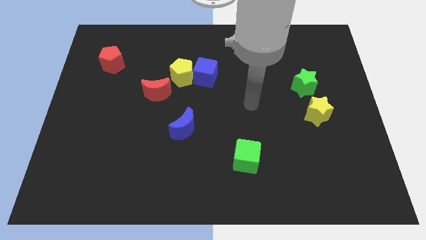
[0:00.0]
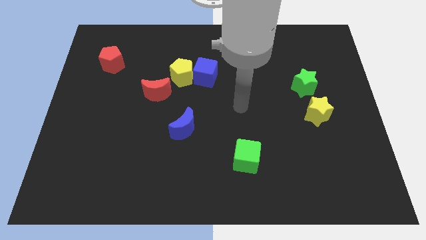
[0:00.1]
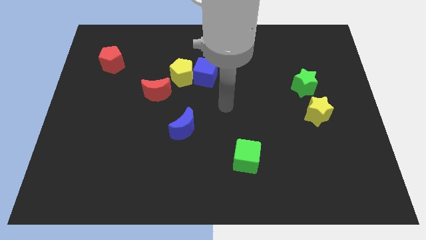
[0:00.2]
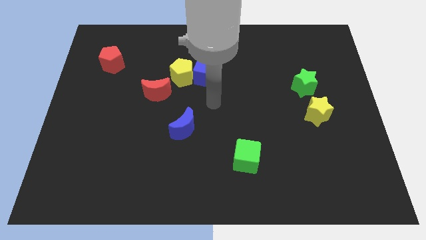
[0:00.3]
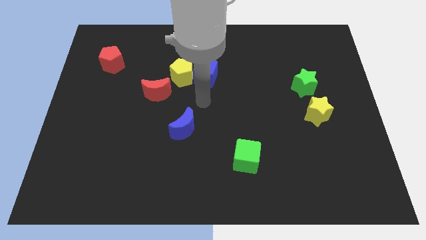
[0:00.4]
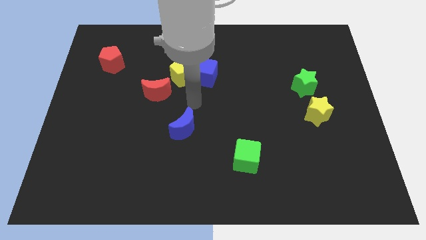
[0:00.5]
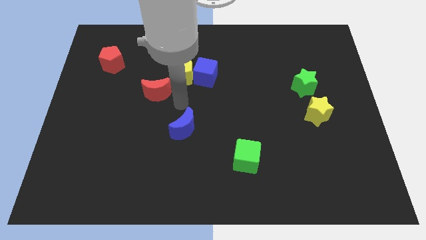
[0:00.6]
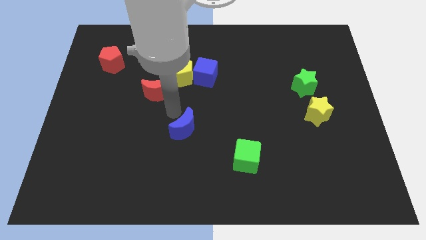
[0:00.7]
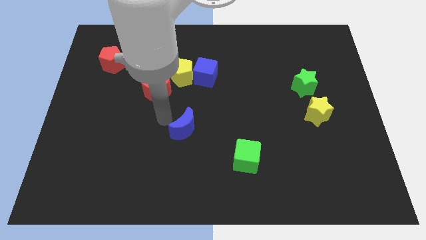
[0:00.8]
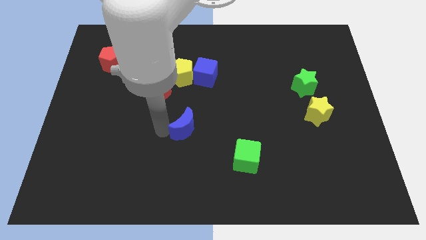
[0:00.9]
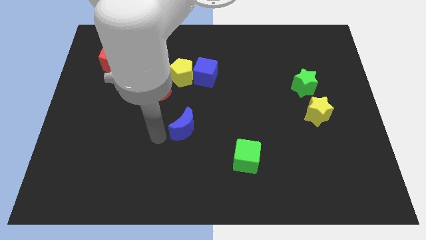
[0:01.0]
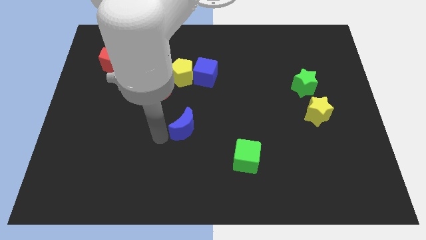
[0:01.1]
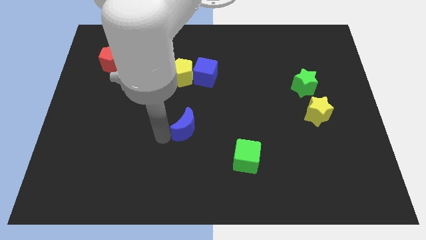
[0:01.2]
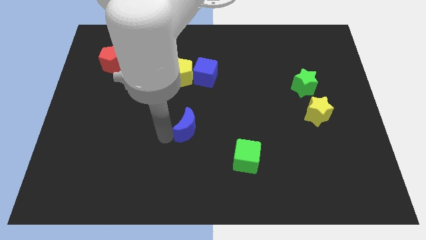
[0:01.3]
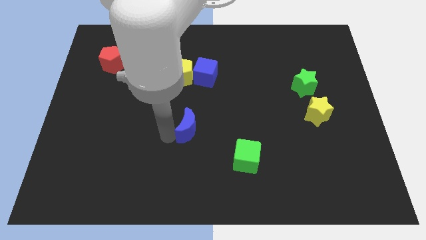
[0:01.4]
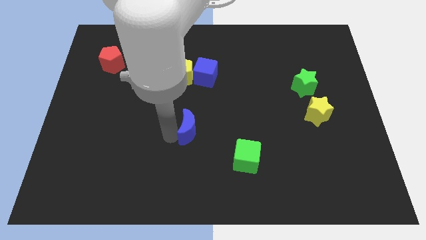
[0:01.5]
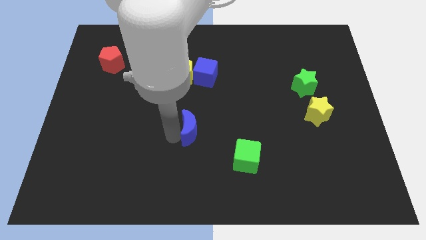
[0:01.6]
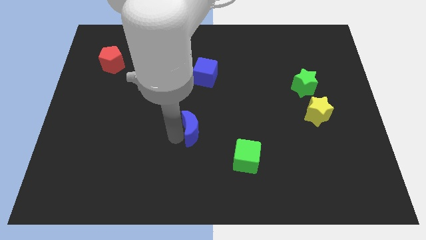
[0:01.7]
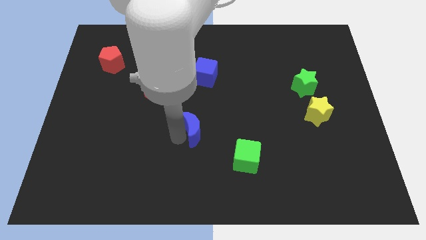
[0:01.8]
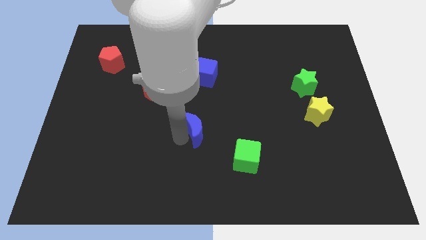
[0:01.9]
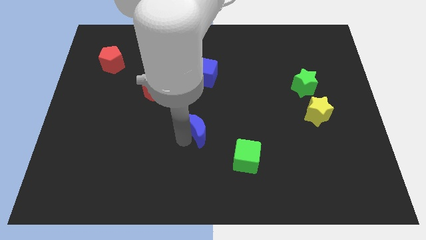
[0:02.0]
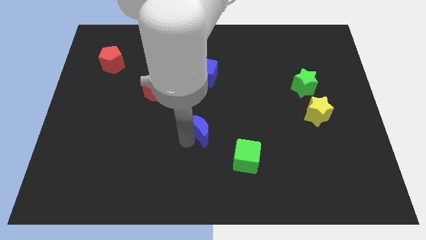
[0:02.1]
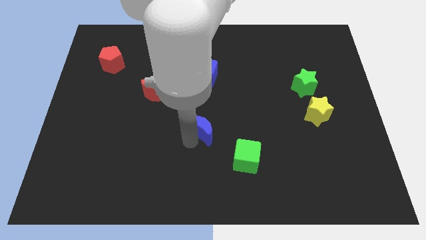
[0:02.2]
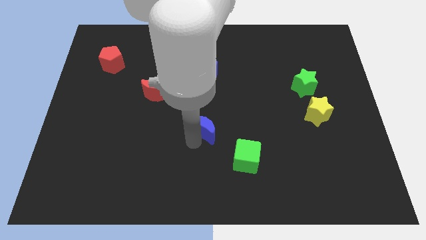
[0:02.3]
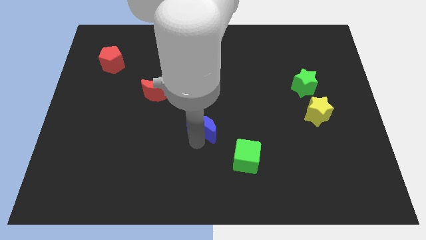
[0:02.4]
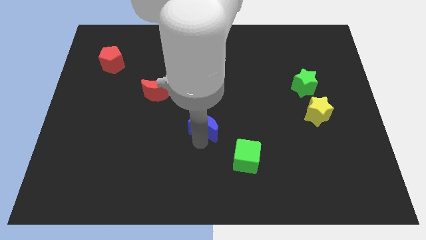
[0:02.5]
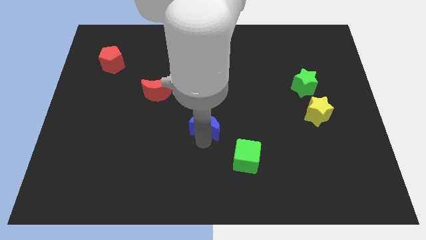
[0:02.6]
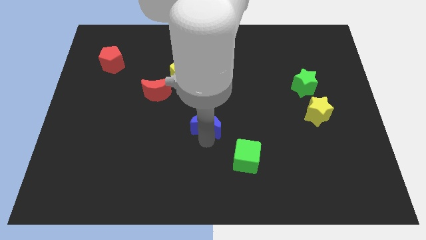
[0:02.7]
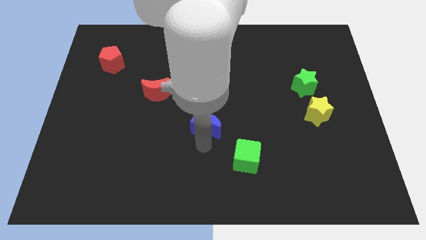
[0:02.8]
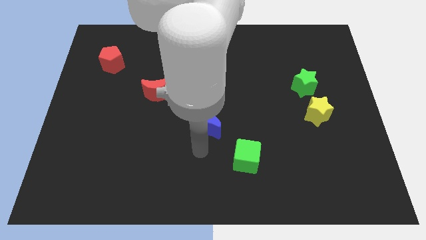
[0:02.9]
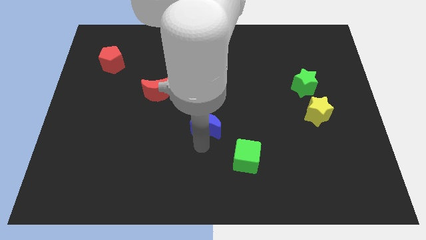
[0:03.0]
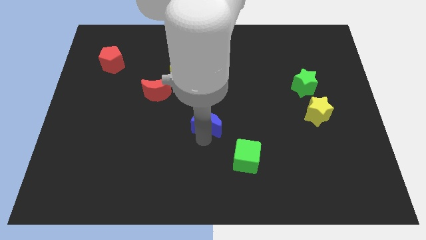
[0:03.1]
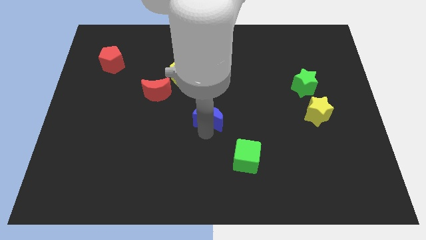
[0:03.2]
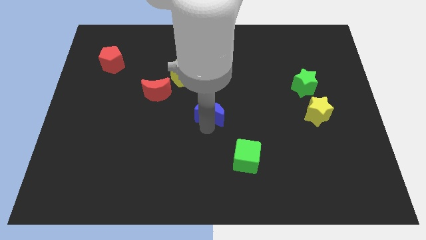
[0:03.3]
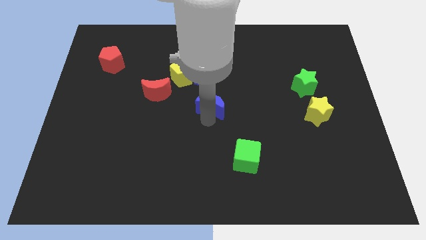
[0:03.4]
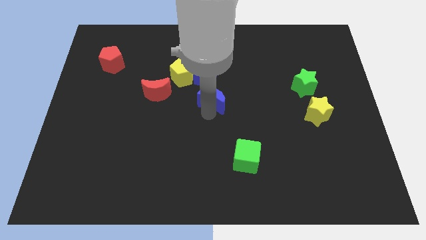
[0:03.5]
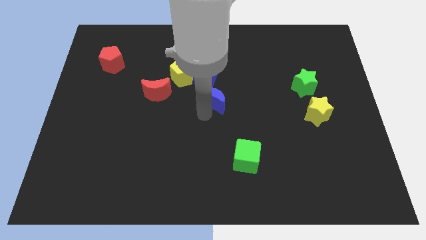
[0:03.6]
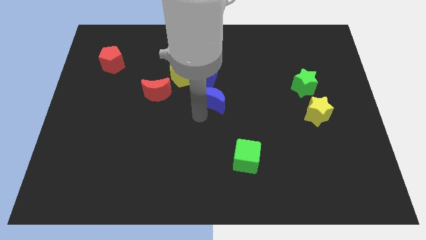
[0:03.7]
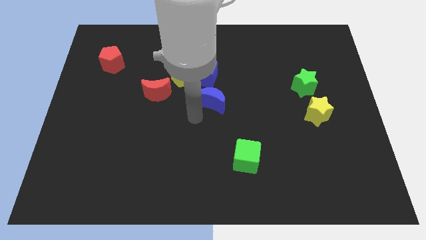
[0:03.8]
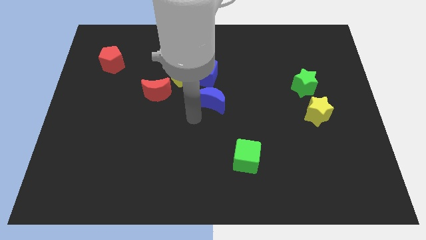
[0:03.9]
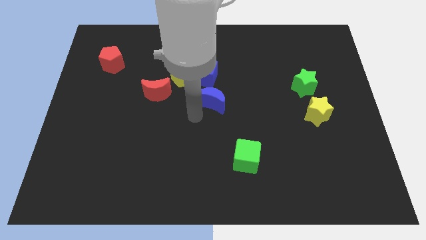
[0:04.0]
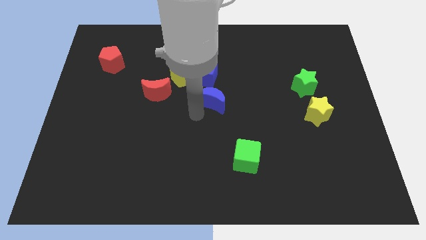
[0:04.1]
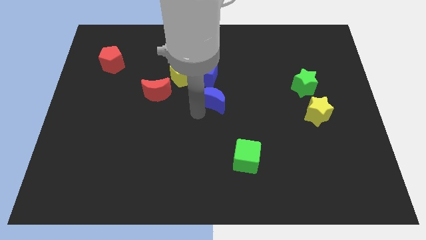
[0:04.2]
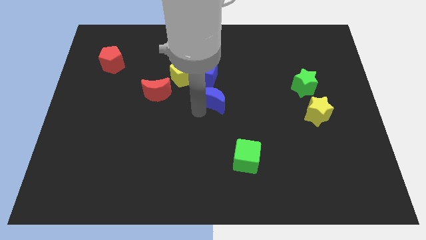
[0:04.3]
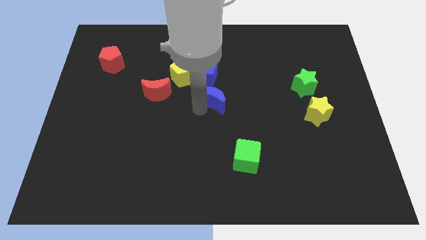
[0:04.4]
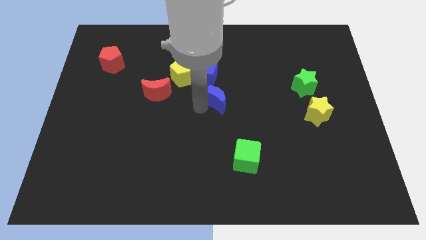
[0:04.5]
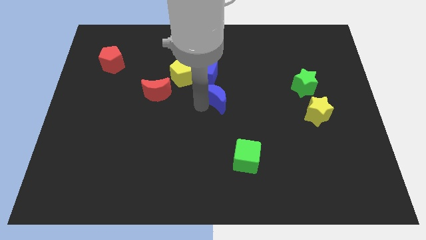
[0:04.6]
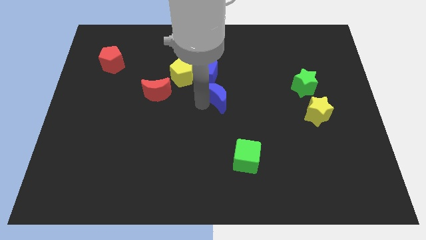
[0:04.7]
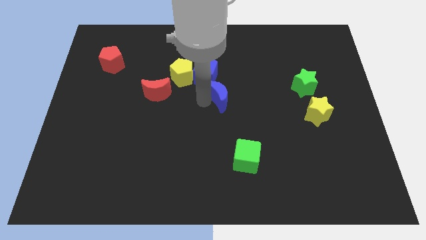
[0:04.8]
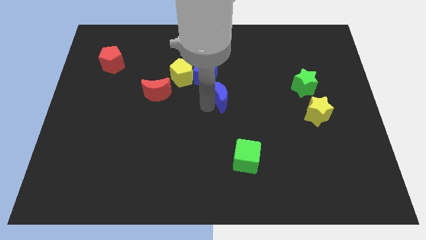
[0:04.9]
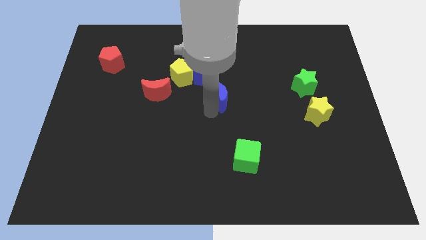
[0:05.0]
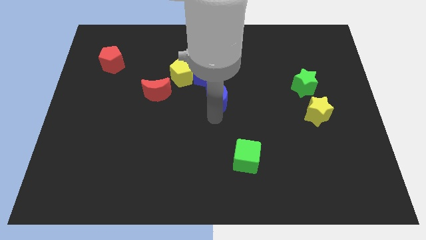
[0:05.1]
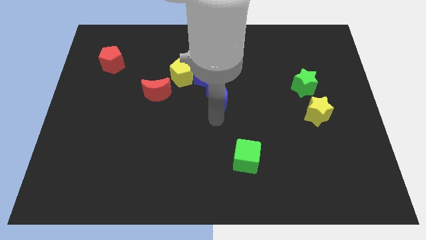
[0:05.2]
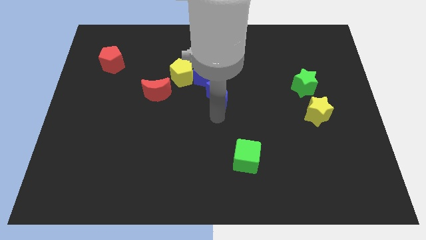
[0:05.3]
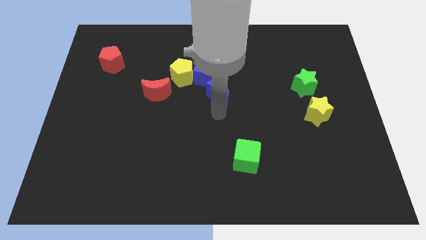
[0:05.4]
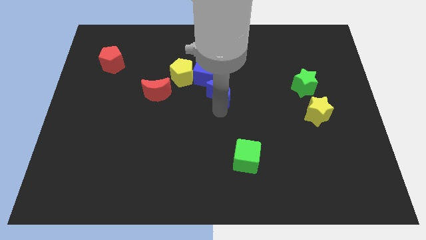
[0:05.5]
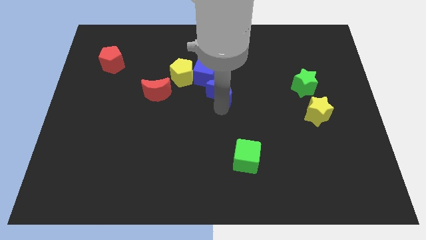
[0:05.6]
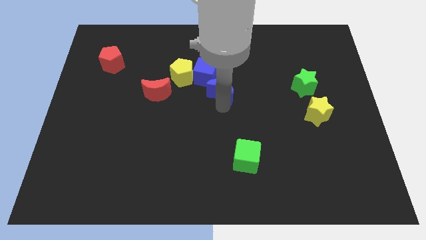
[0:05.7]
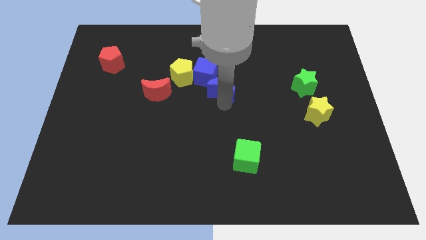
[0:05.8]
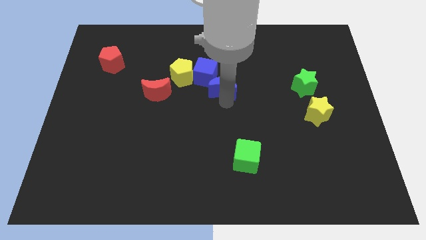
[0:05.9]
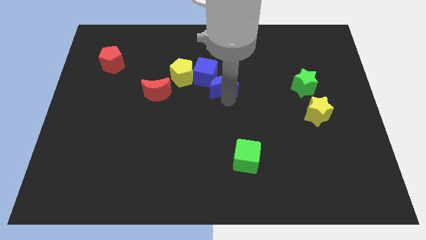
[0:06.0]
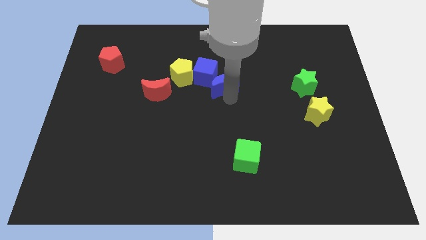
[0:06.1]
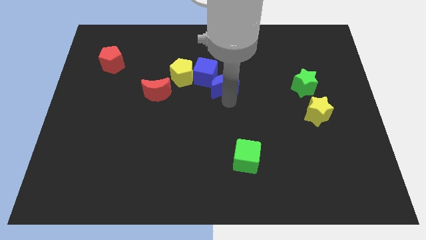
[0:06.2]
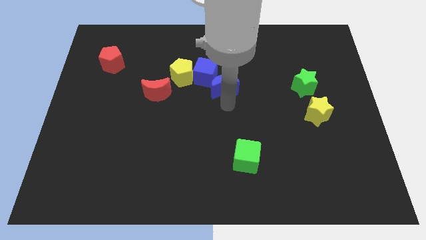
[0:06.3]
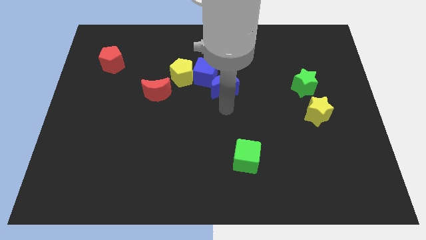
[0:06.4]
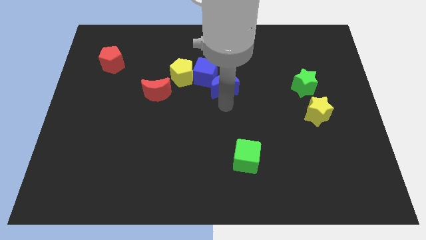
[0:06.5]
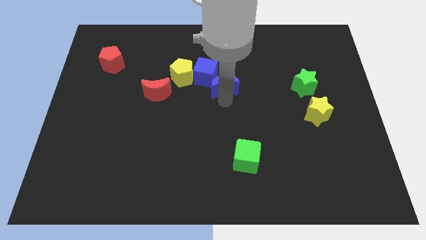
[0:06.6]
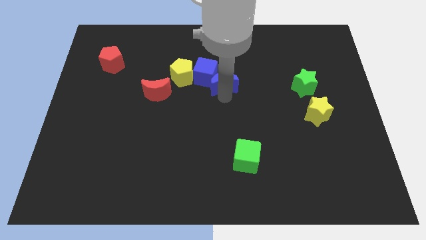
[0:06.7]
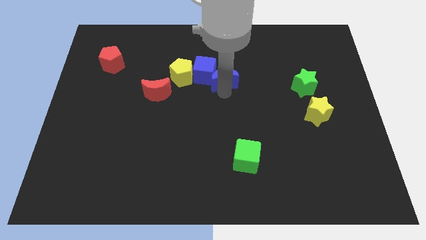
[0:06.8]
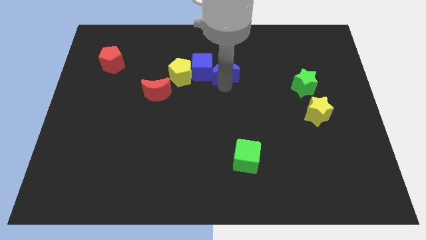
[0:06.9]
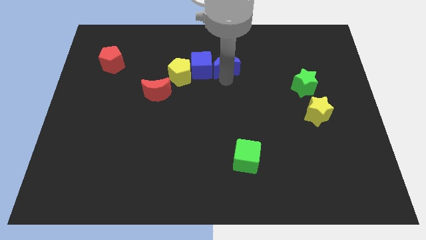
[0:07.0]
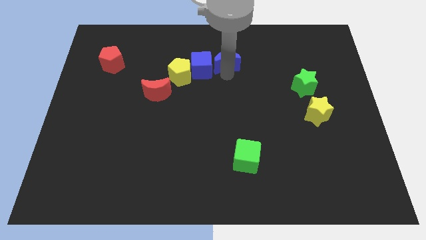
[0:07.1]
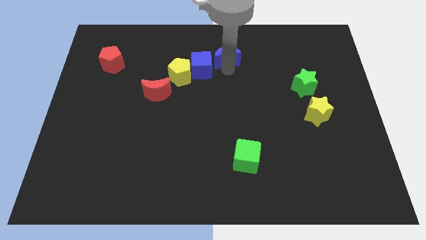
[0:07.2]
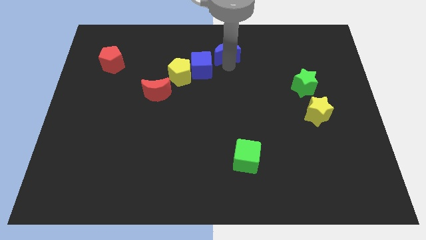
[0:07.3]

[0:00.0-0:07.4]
move the blue moon to the towards your base
